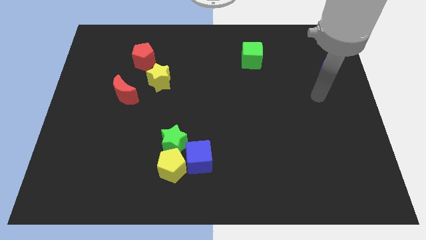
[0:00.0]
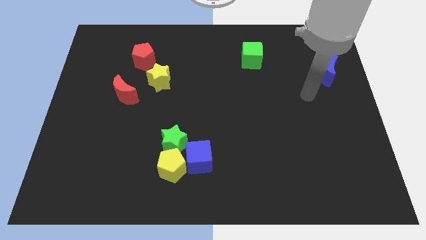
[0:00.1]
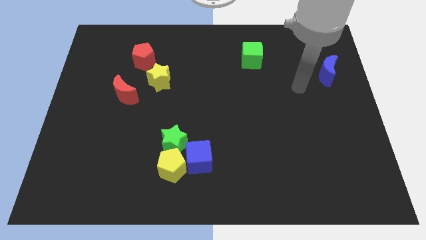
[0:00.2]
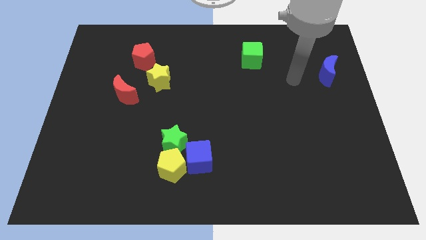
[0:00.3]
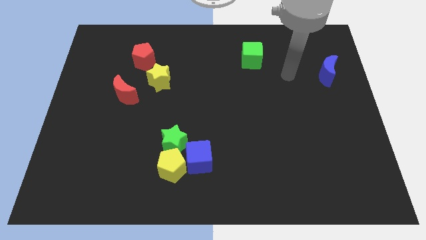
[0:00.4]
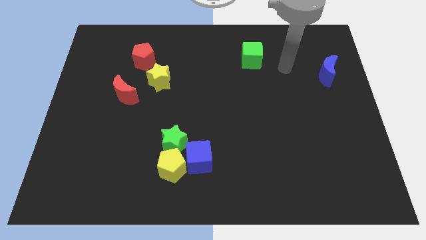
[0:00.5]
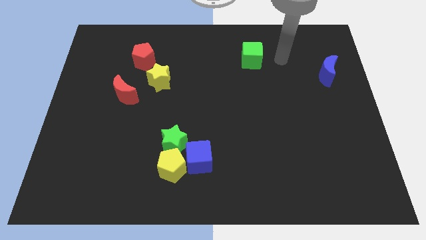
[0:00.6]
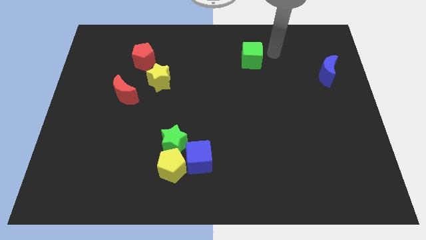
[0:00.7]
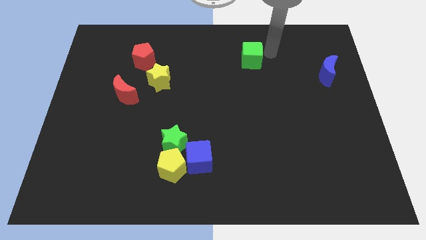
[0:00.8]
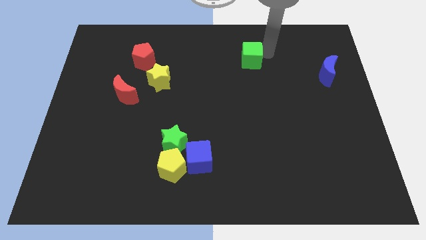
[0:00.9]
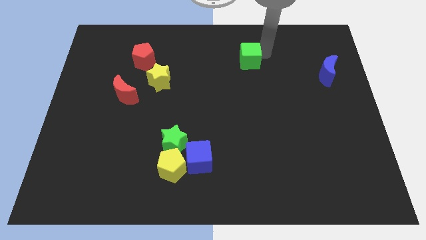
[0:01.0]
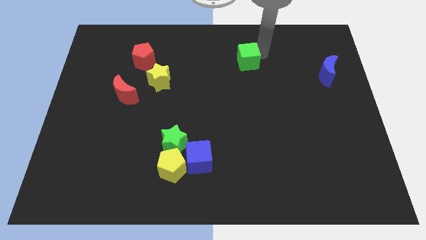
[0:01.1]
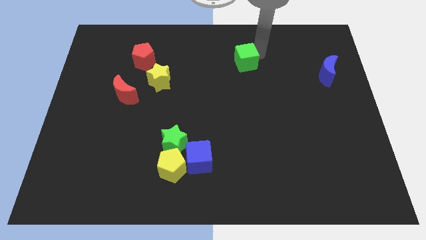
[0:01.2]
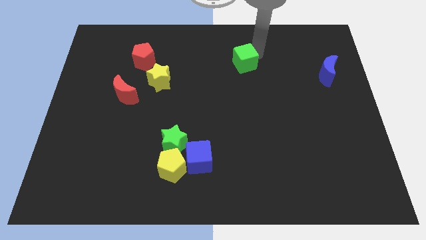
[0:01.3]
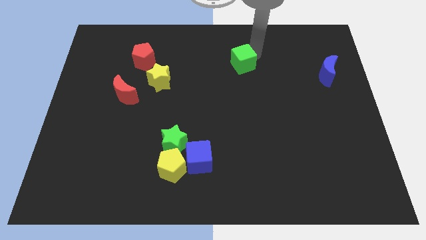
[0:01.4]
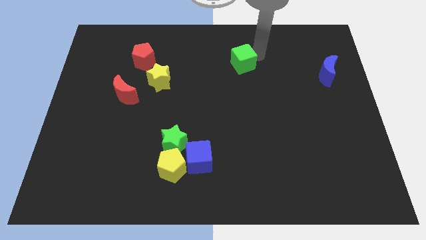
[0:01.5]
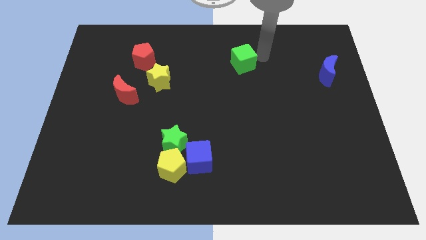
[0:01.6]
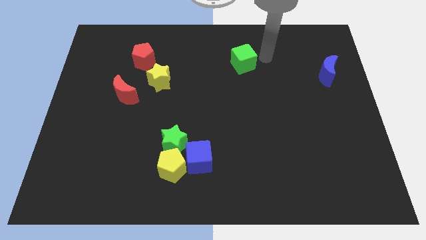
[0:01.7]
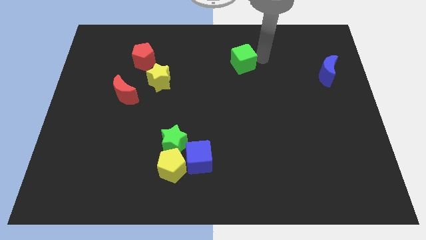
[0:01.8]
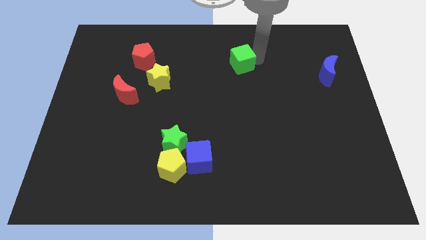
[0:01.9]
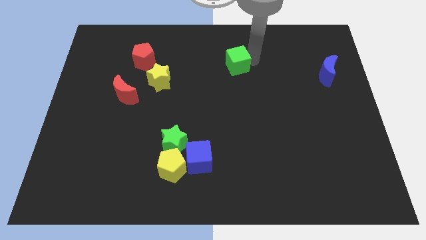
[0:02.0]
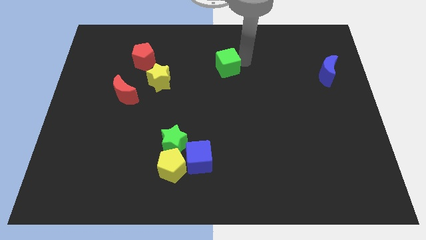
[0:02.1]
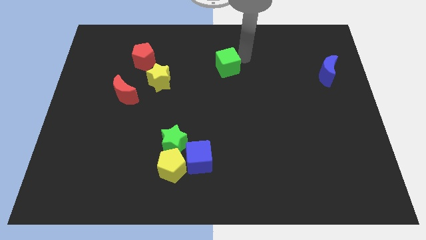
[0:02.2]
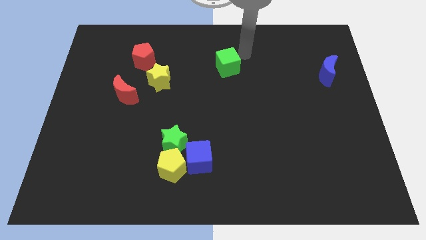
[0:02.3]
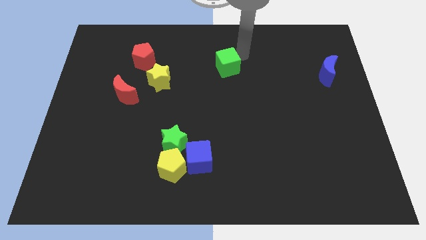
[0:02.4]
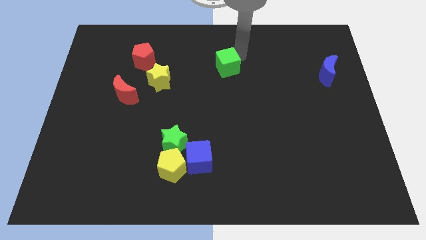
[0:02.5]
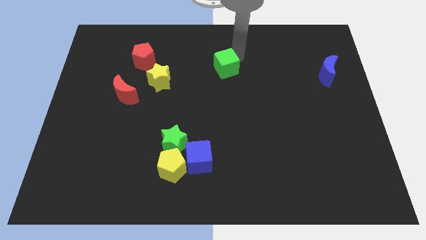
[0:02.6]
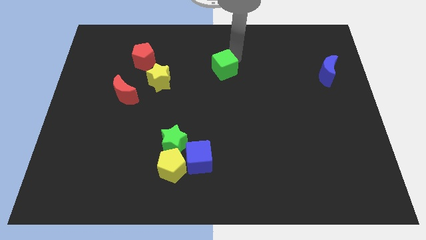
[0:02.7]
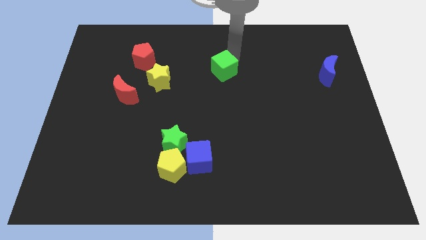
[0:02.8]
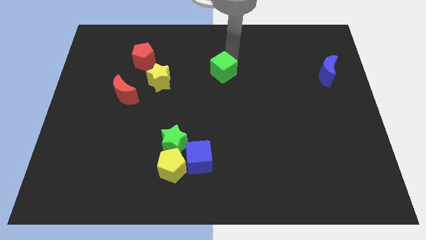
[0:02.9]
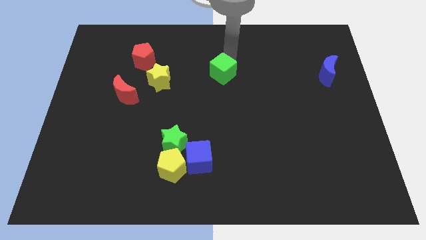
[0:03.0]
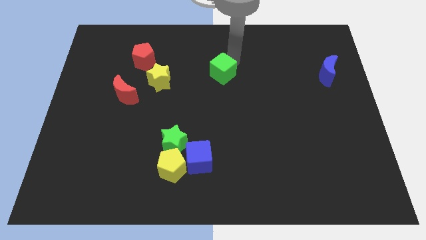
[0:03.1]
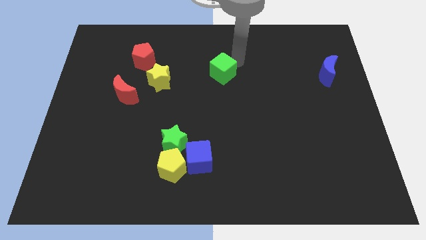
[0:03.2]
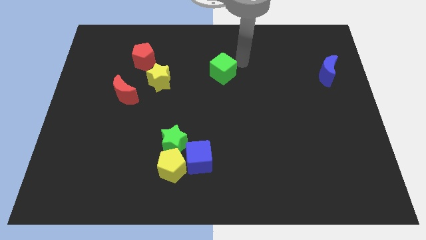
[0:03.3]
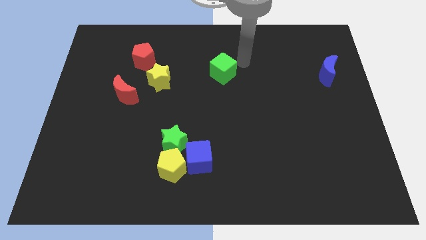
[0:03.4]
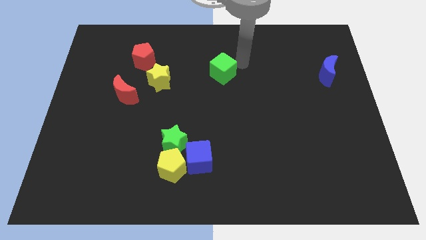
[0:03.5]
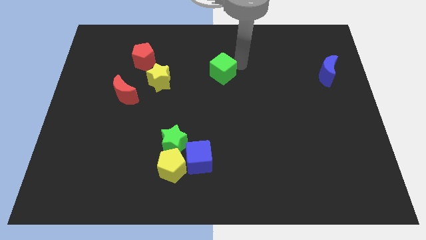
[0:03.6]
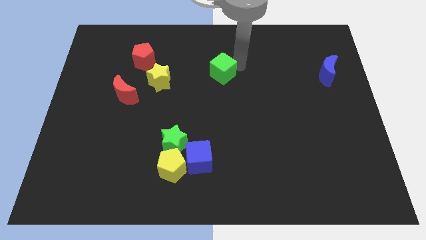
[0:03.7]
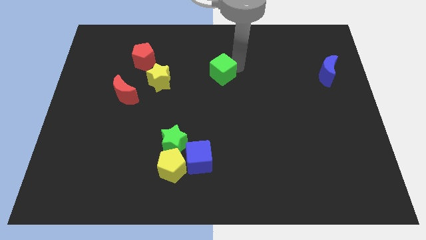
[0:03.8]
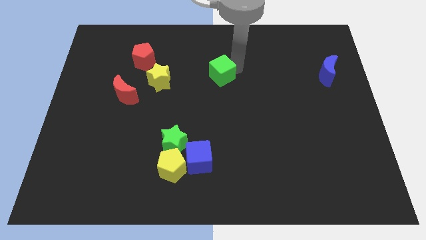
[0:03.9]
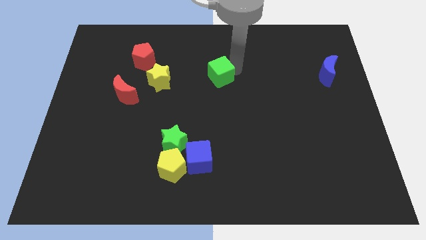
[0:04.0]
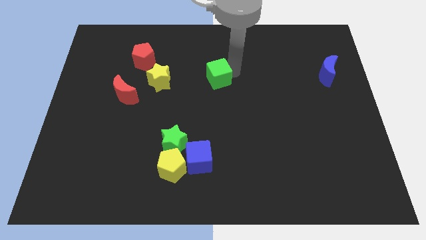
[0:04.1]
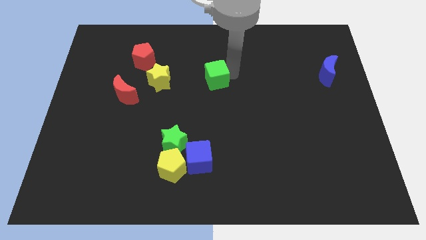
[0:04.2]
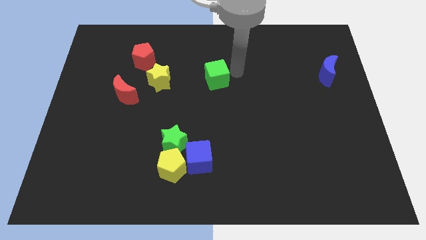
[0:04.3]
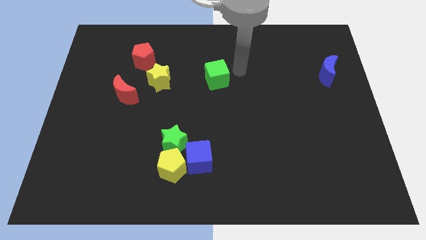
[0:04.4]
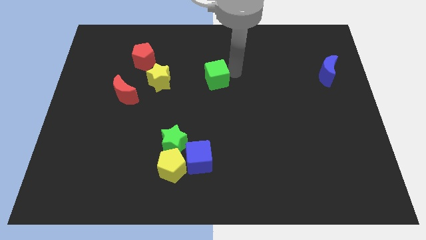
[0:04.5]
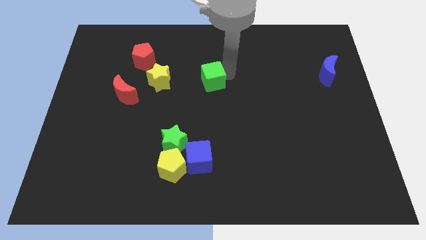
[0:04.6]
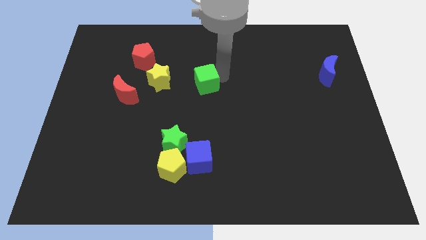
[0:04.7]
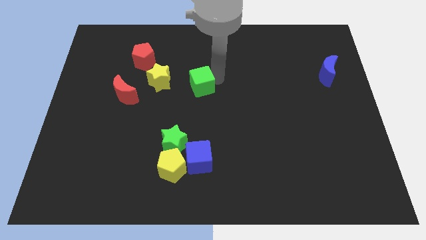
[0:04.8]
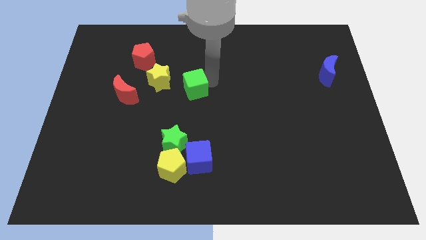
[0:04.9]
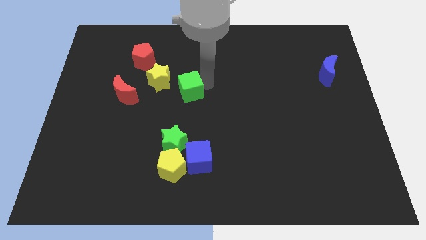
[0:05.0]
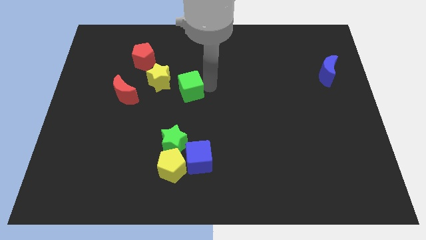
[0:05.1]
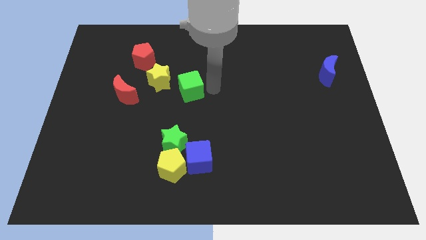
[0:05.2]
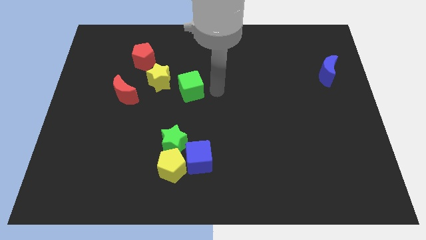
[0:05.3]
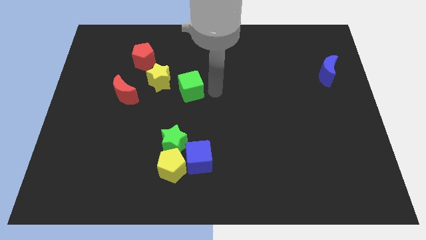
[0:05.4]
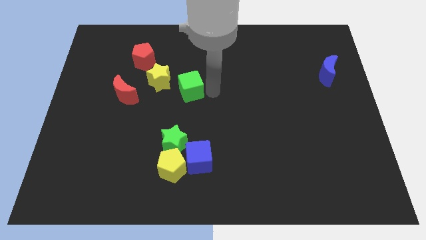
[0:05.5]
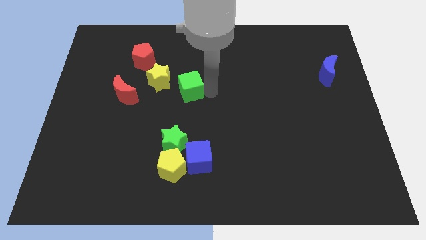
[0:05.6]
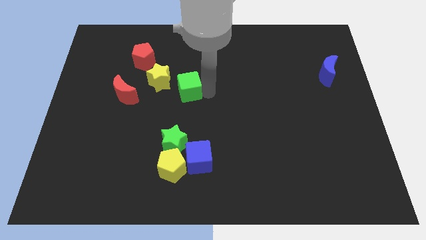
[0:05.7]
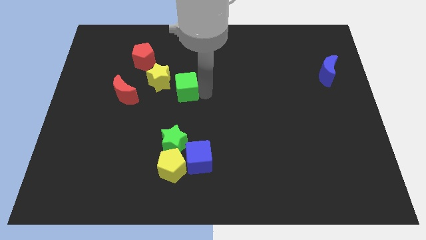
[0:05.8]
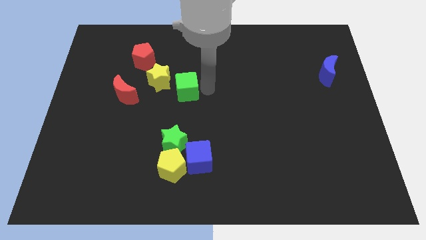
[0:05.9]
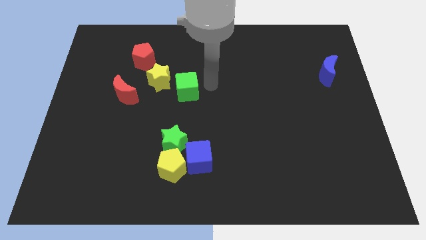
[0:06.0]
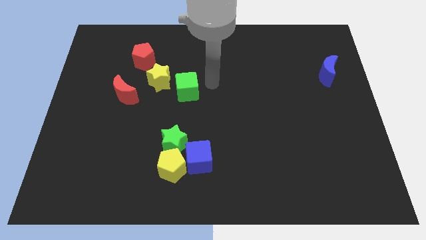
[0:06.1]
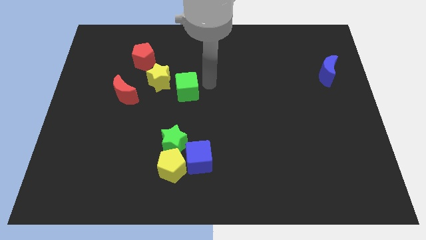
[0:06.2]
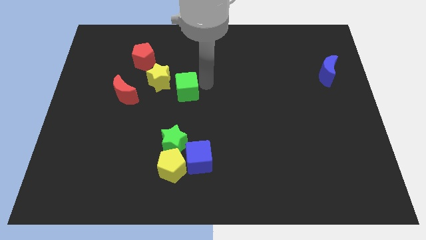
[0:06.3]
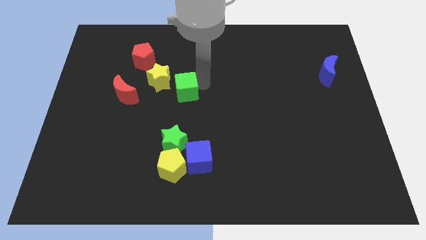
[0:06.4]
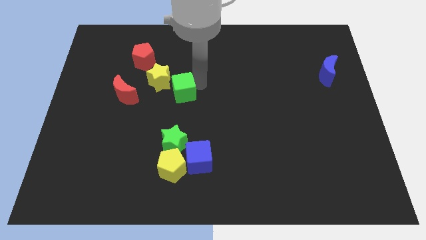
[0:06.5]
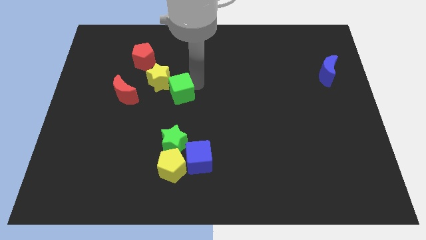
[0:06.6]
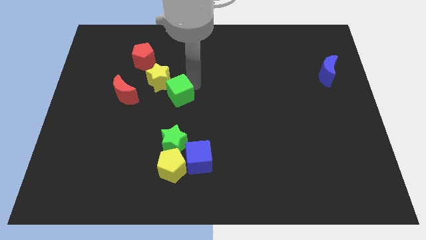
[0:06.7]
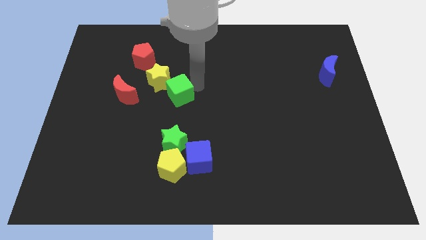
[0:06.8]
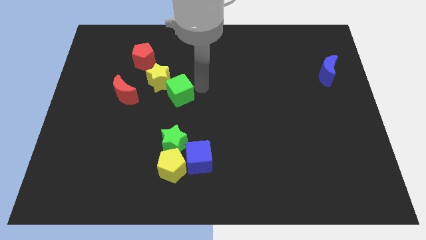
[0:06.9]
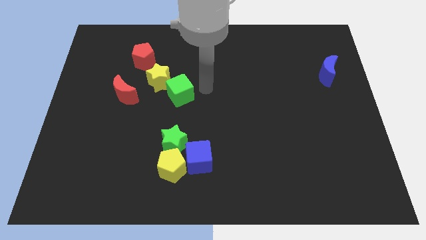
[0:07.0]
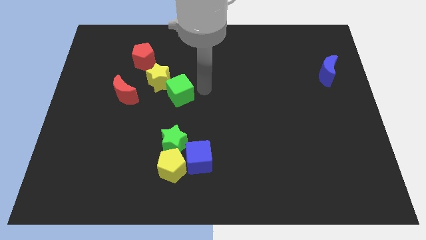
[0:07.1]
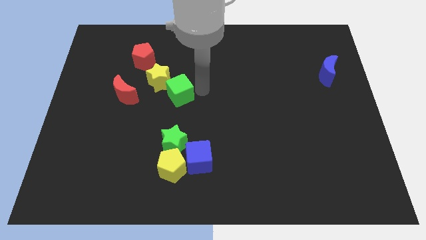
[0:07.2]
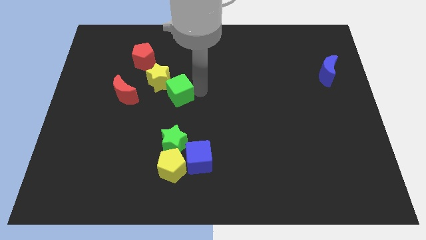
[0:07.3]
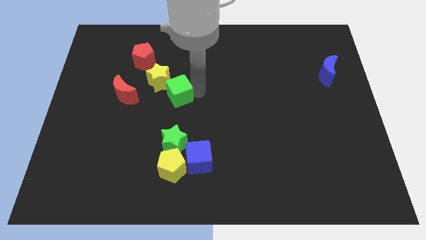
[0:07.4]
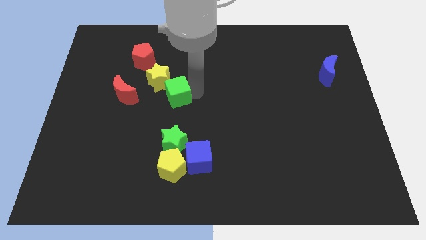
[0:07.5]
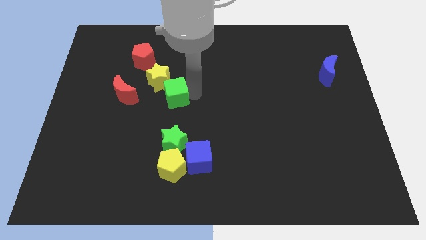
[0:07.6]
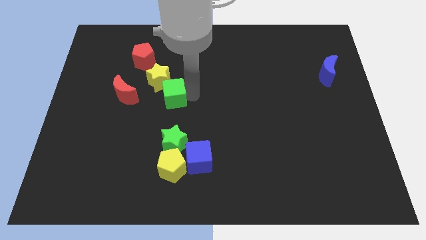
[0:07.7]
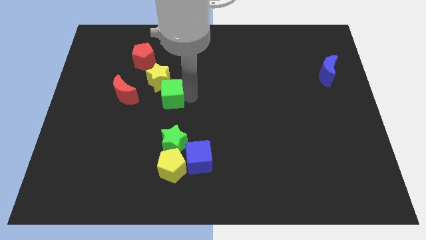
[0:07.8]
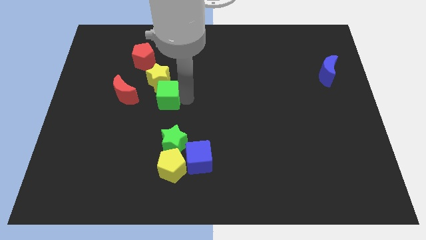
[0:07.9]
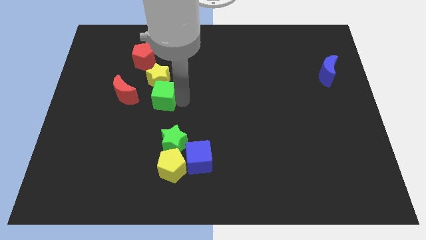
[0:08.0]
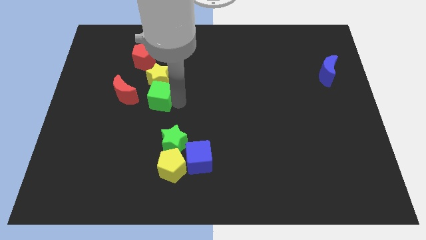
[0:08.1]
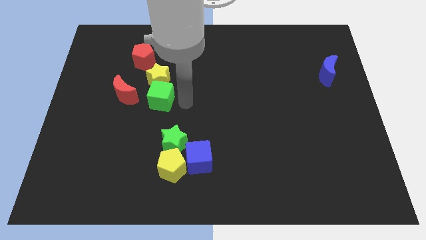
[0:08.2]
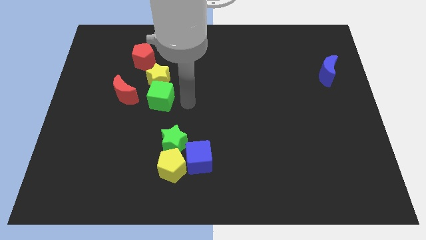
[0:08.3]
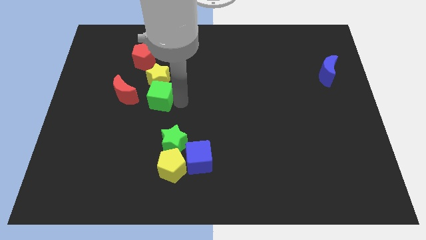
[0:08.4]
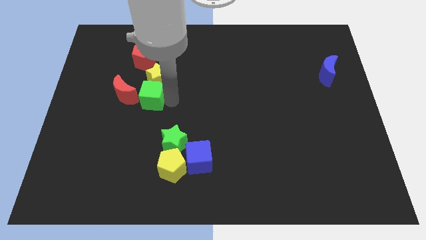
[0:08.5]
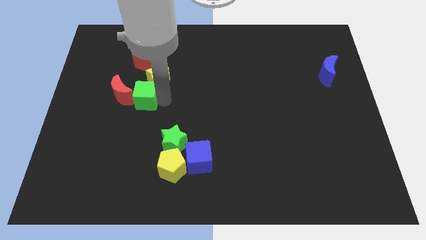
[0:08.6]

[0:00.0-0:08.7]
push the green cube to the red moon
